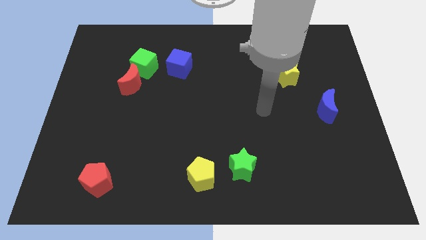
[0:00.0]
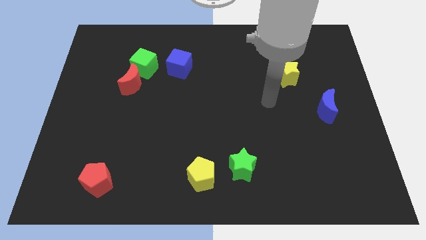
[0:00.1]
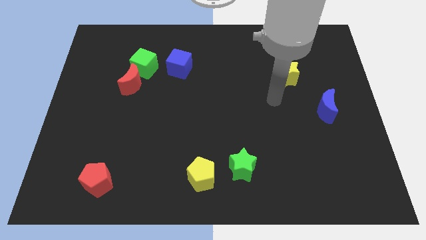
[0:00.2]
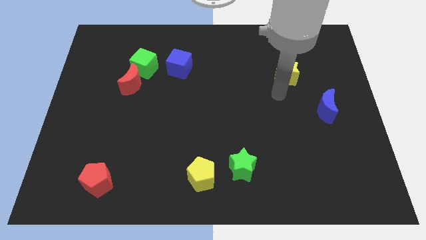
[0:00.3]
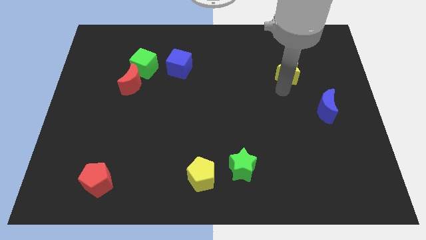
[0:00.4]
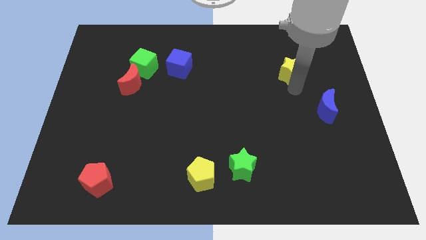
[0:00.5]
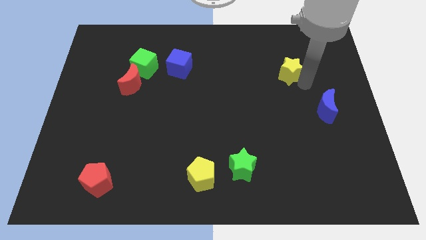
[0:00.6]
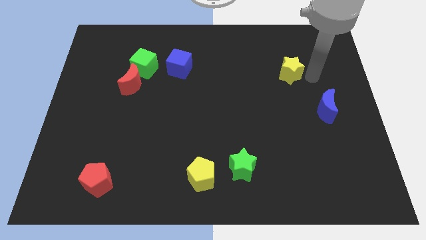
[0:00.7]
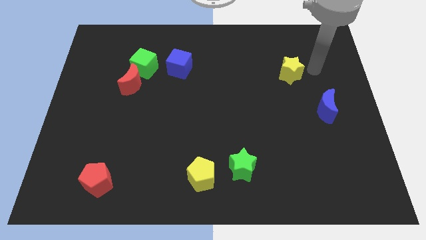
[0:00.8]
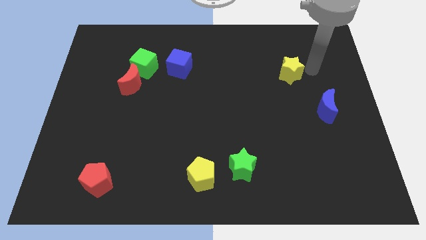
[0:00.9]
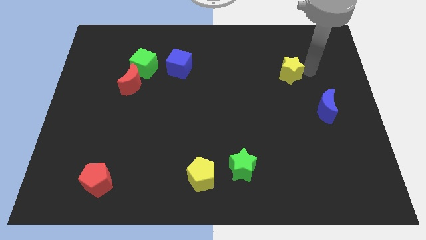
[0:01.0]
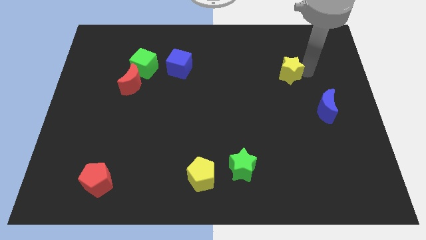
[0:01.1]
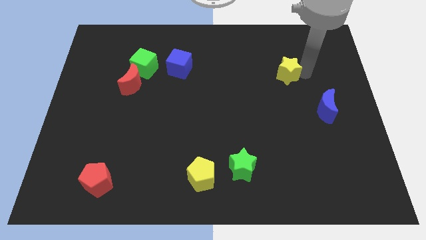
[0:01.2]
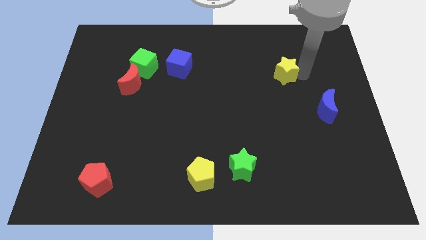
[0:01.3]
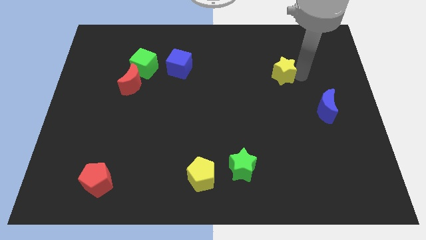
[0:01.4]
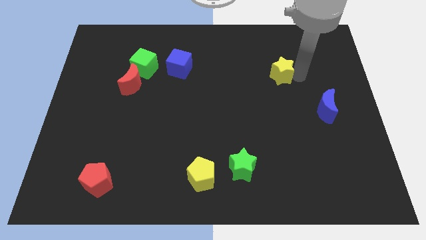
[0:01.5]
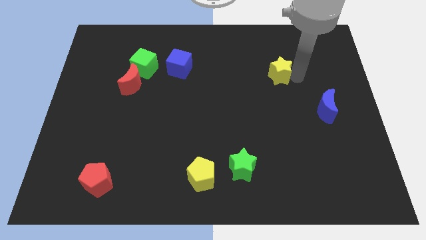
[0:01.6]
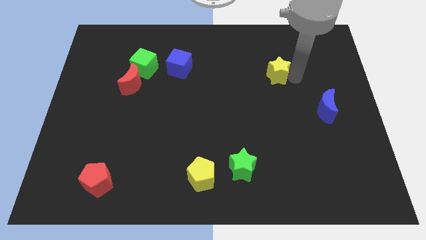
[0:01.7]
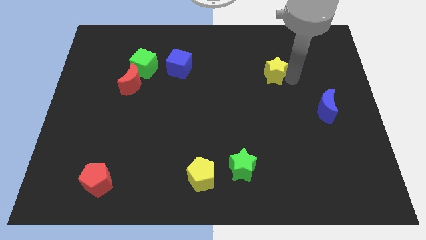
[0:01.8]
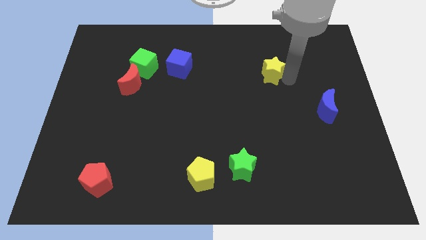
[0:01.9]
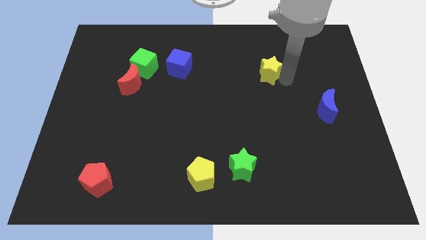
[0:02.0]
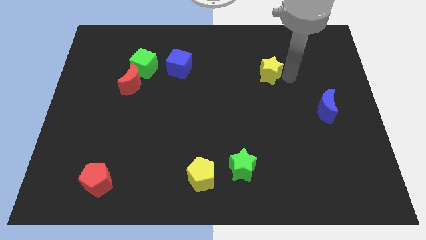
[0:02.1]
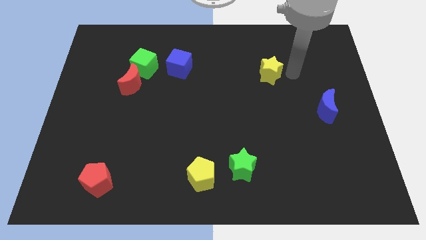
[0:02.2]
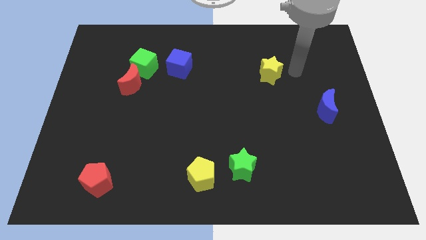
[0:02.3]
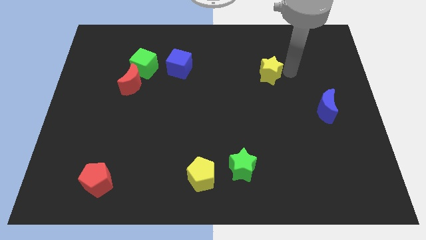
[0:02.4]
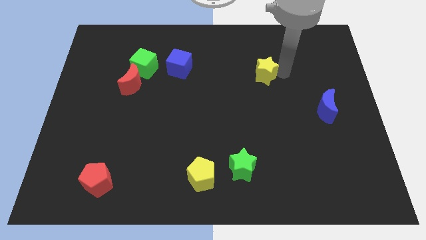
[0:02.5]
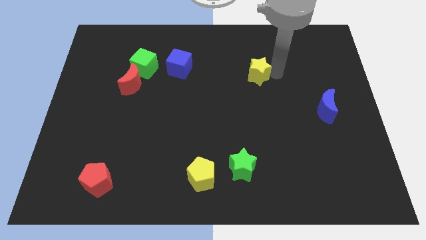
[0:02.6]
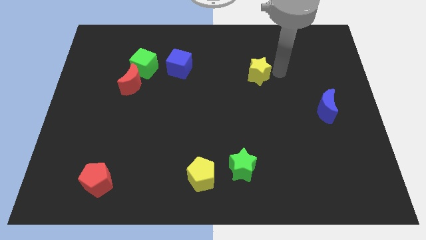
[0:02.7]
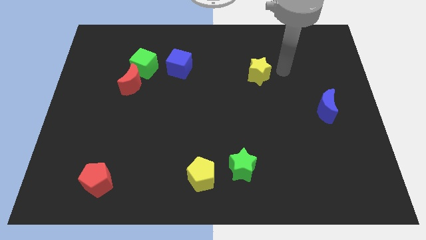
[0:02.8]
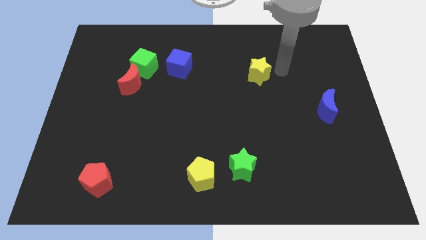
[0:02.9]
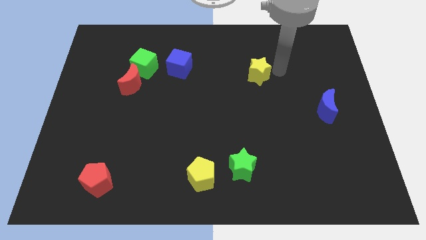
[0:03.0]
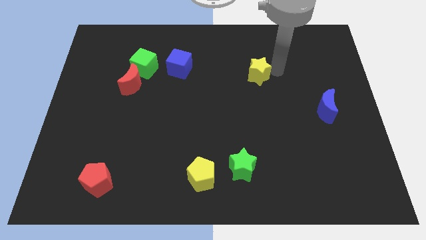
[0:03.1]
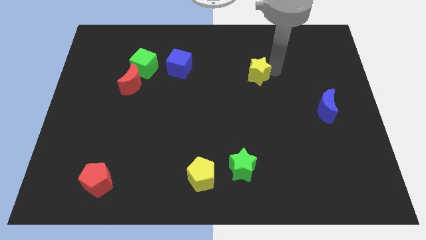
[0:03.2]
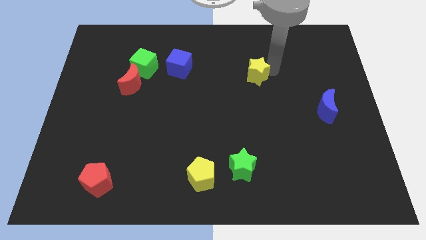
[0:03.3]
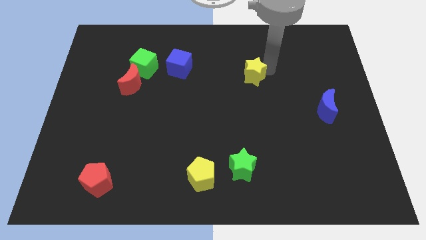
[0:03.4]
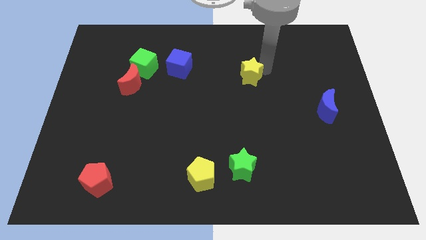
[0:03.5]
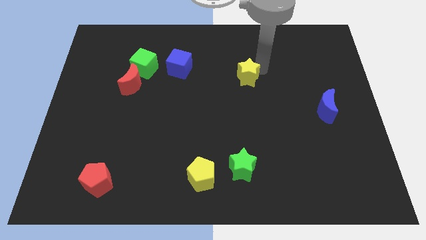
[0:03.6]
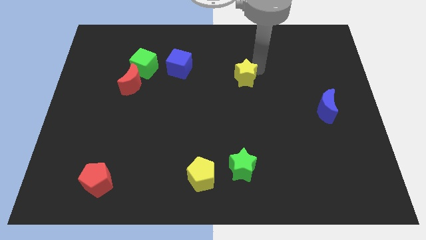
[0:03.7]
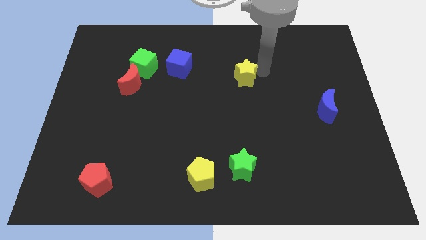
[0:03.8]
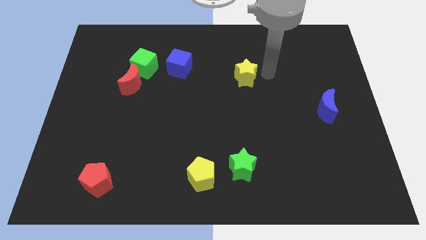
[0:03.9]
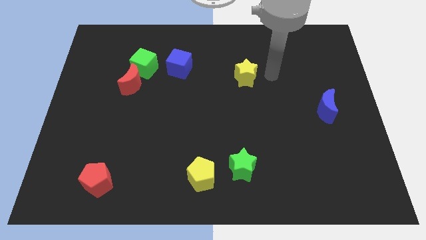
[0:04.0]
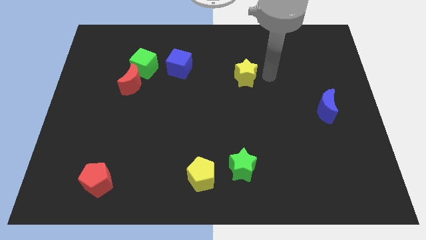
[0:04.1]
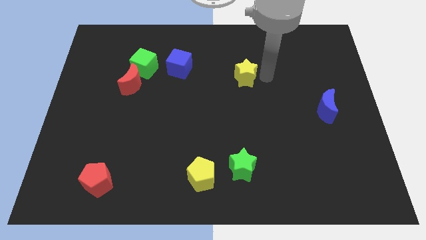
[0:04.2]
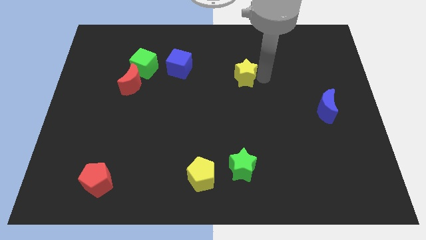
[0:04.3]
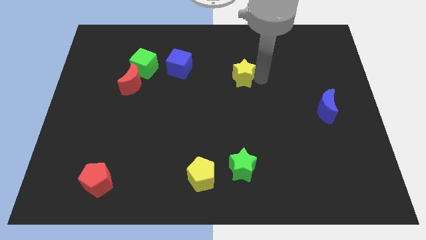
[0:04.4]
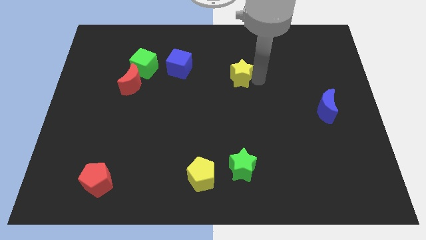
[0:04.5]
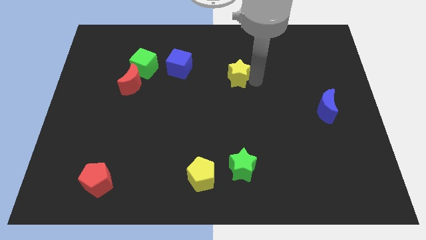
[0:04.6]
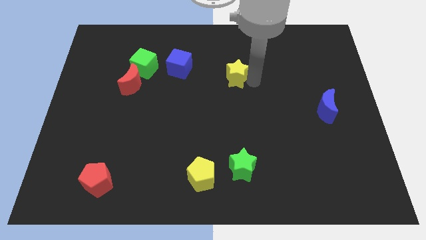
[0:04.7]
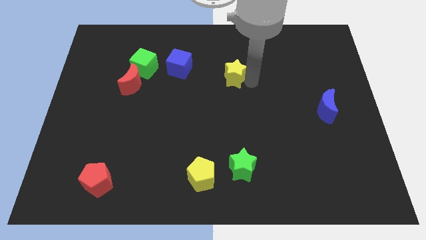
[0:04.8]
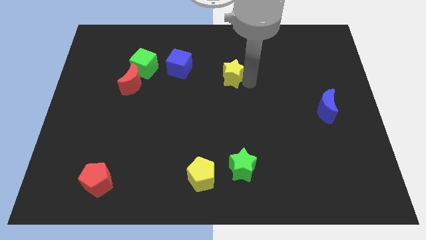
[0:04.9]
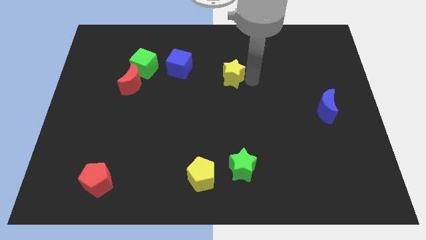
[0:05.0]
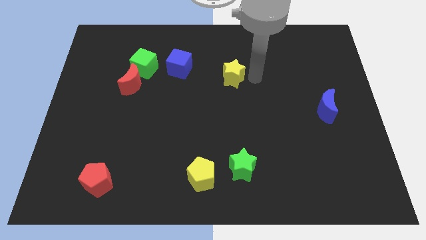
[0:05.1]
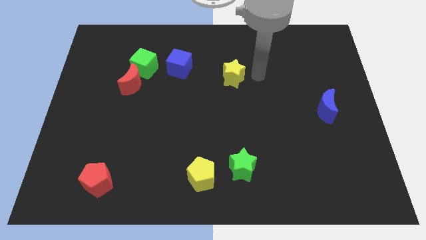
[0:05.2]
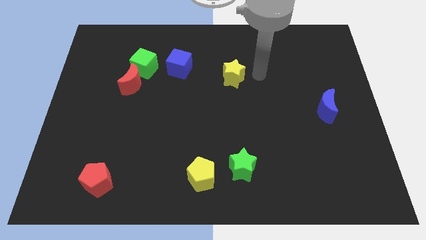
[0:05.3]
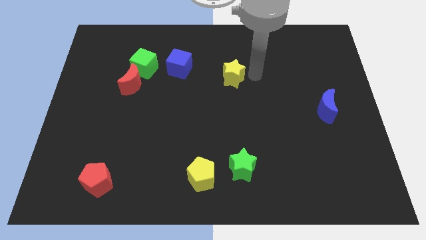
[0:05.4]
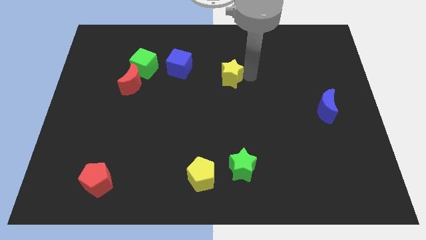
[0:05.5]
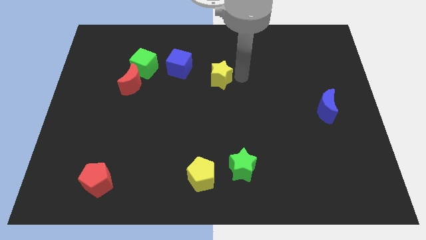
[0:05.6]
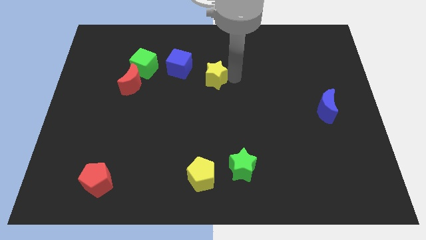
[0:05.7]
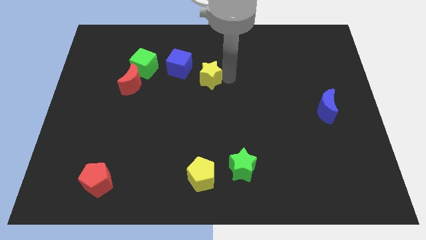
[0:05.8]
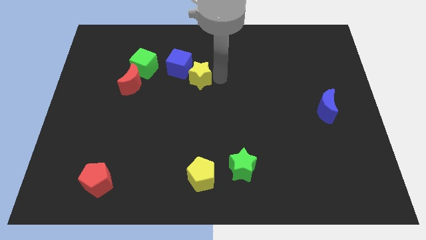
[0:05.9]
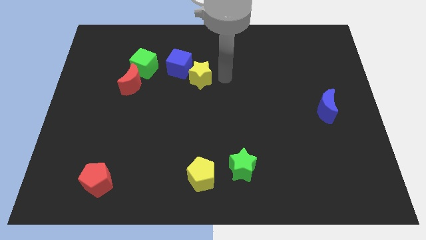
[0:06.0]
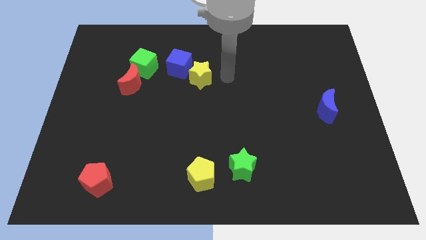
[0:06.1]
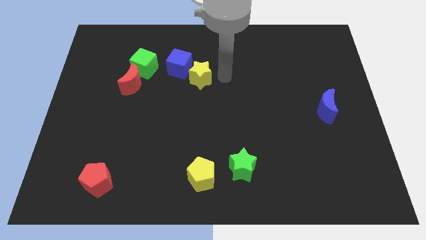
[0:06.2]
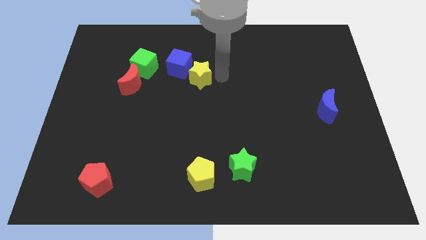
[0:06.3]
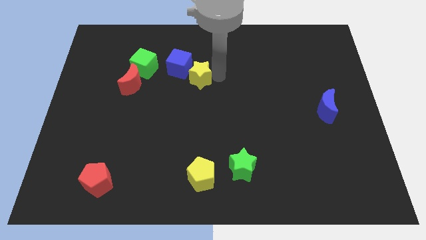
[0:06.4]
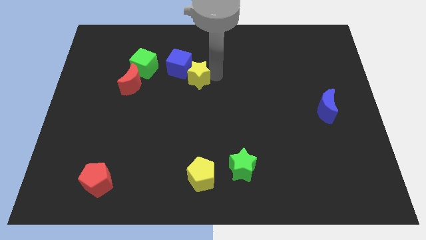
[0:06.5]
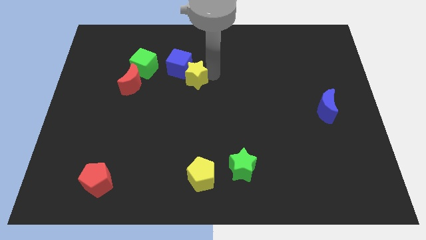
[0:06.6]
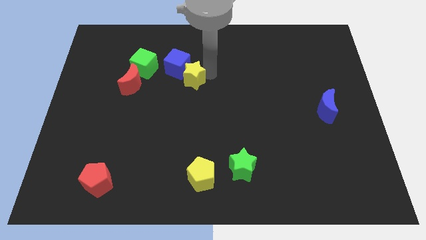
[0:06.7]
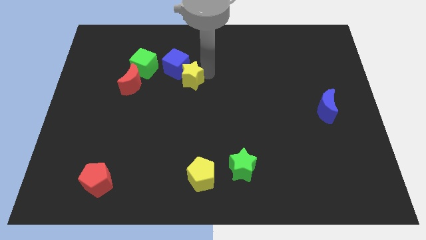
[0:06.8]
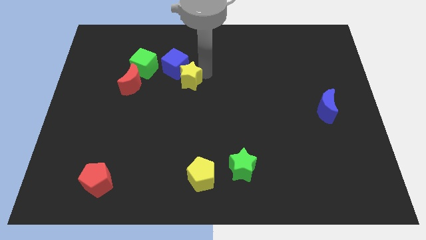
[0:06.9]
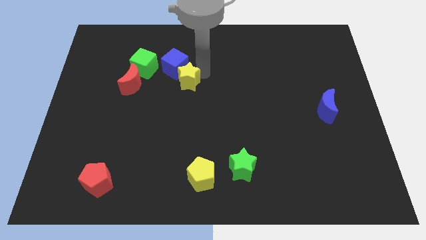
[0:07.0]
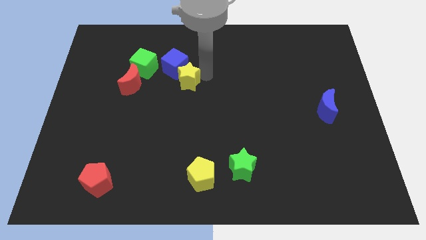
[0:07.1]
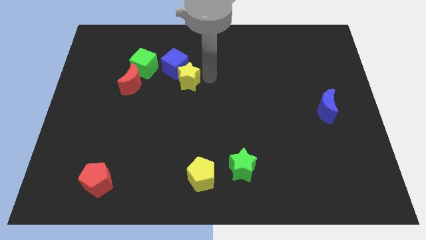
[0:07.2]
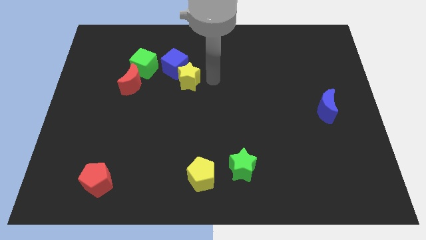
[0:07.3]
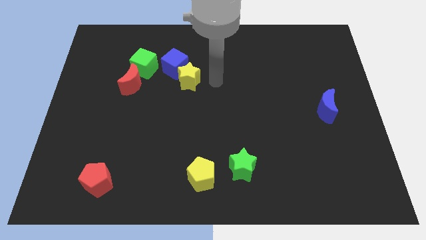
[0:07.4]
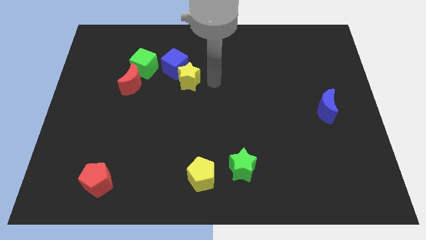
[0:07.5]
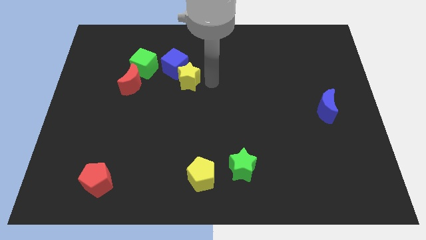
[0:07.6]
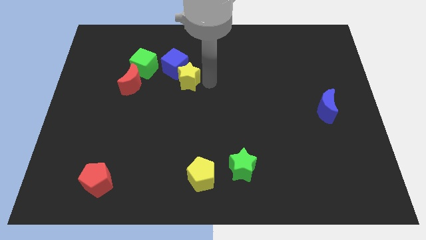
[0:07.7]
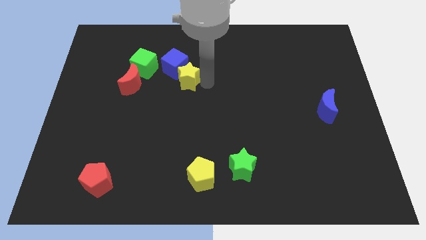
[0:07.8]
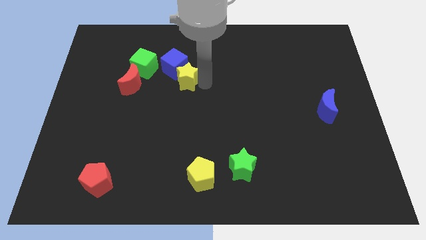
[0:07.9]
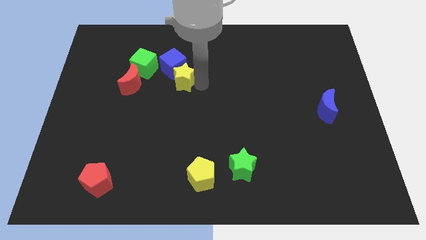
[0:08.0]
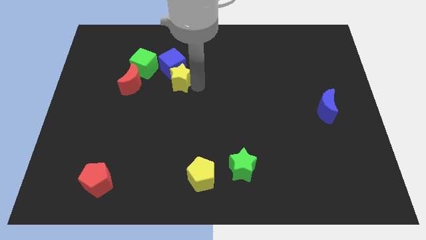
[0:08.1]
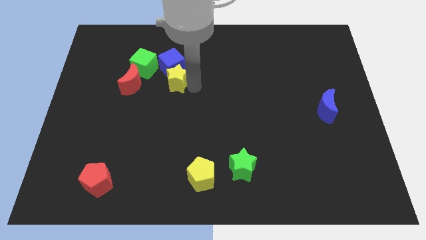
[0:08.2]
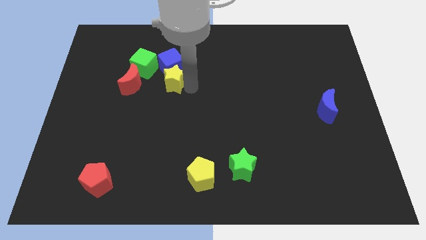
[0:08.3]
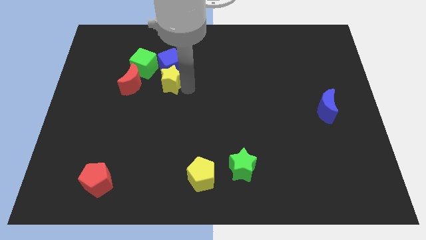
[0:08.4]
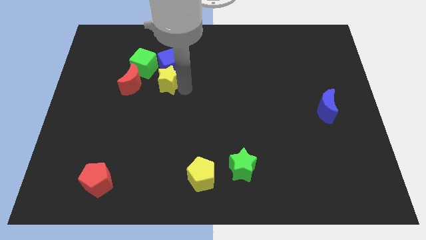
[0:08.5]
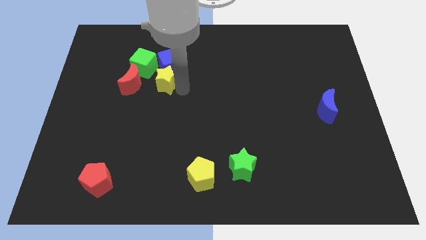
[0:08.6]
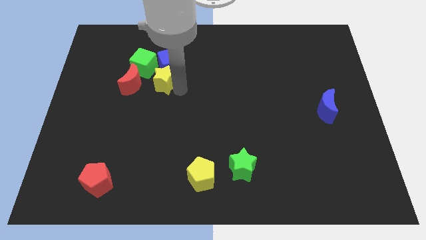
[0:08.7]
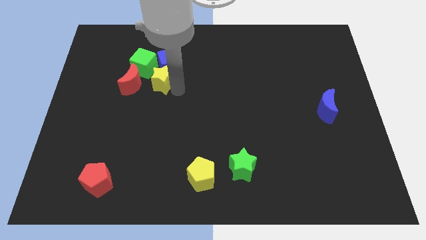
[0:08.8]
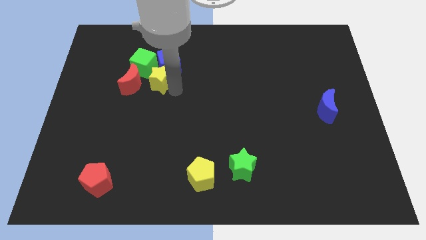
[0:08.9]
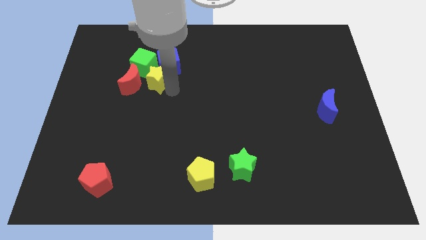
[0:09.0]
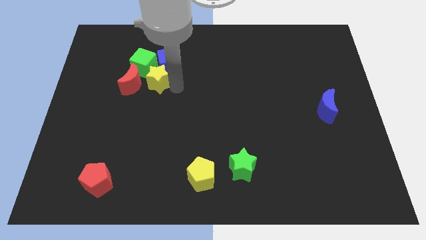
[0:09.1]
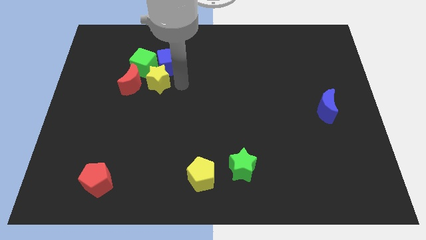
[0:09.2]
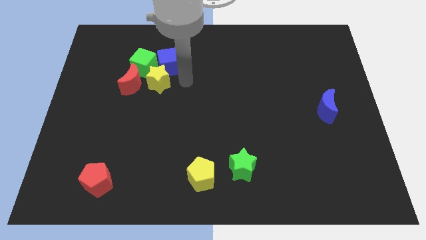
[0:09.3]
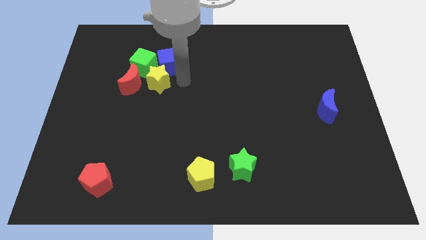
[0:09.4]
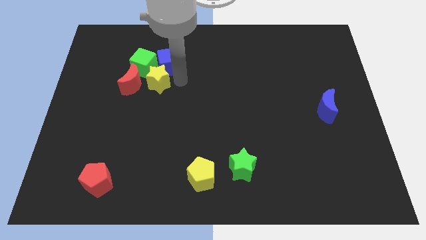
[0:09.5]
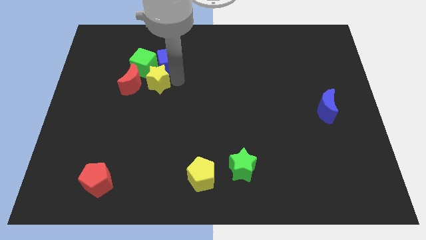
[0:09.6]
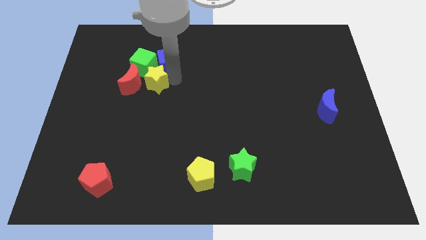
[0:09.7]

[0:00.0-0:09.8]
slide the yellow star close to the red moon
